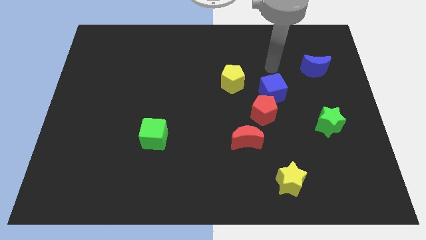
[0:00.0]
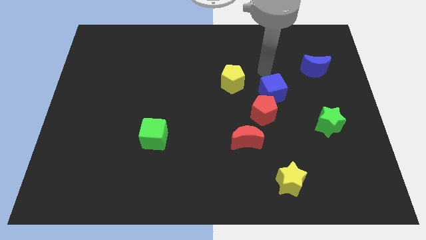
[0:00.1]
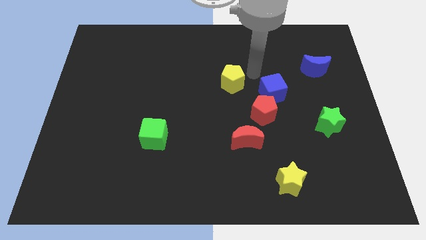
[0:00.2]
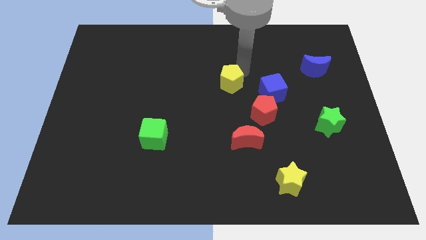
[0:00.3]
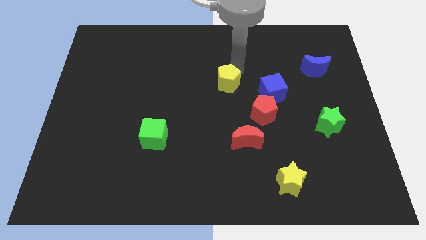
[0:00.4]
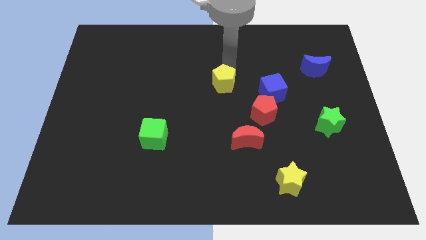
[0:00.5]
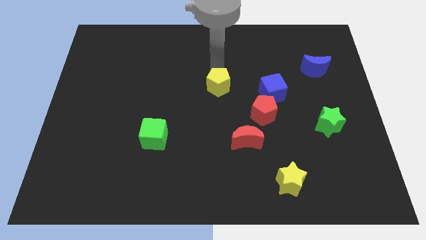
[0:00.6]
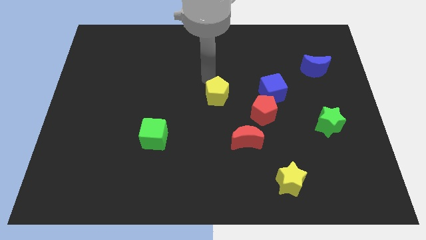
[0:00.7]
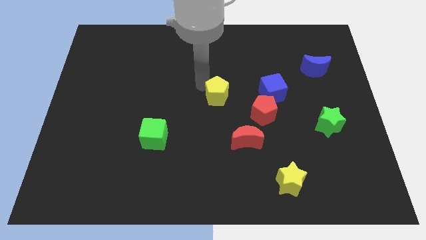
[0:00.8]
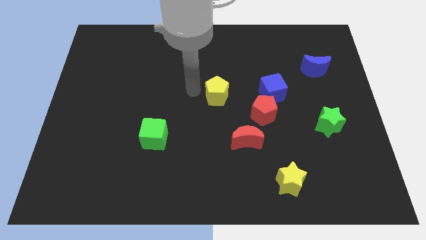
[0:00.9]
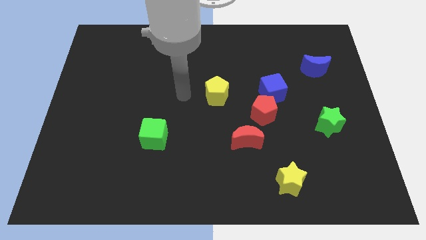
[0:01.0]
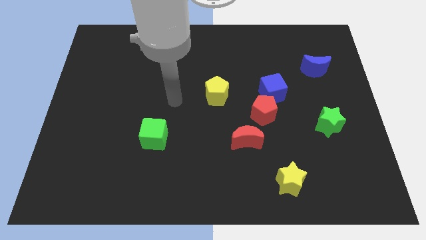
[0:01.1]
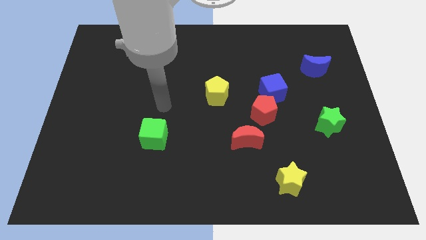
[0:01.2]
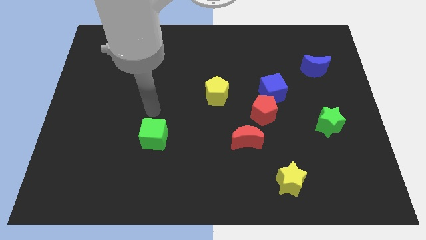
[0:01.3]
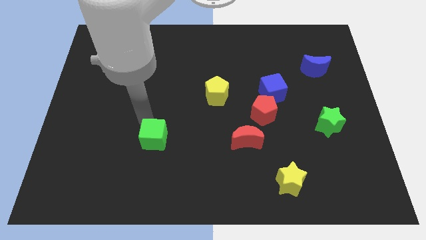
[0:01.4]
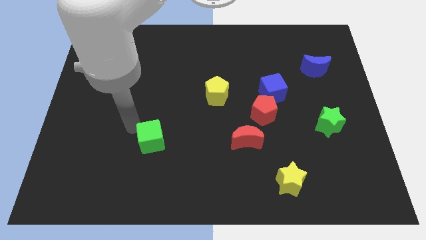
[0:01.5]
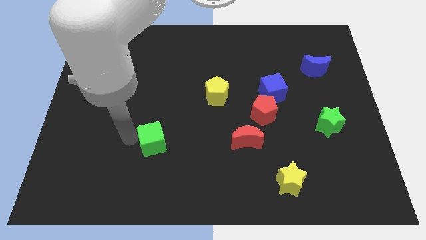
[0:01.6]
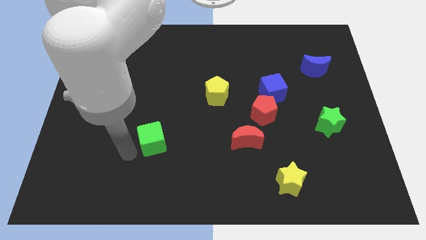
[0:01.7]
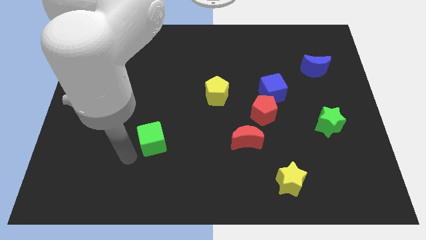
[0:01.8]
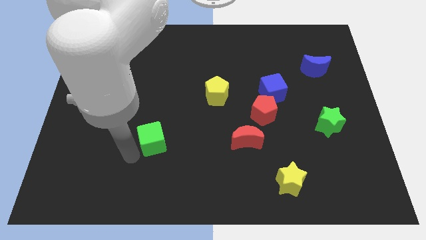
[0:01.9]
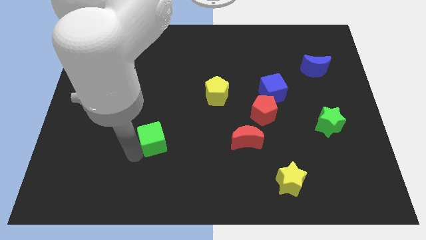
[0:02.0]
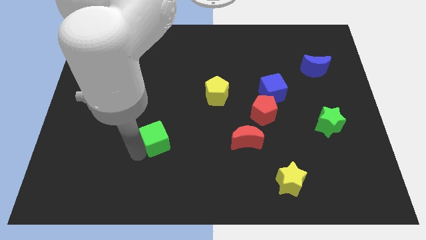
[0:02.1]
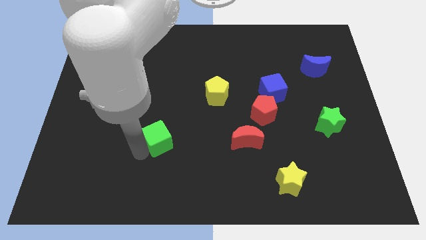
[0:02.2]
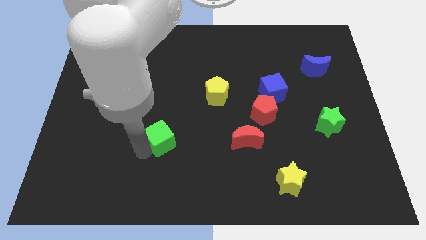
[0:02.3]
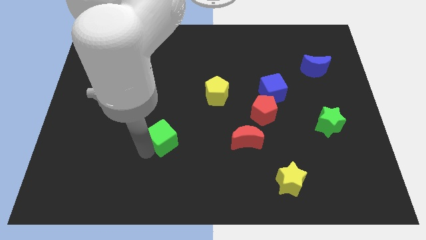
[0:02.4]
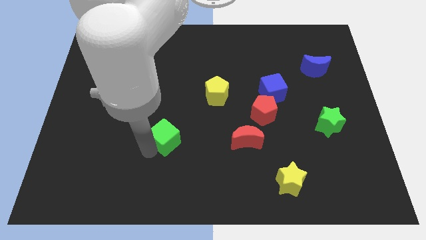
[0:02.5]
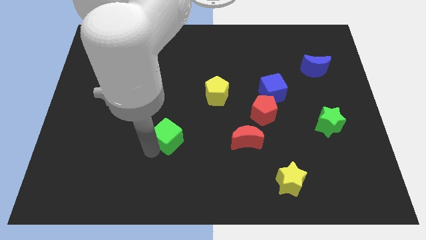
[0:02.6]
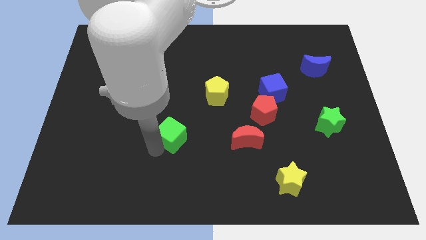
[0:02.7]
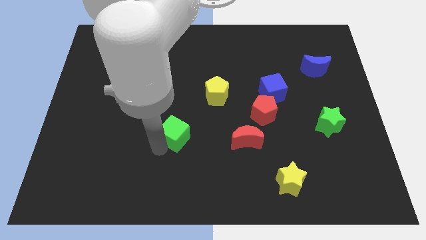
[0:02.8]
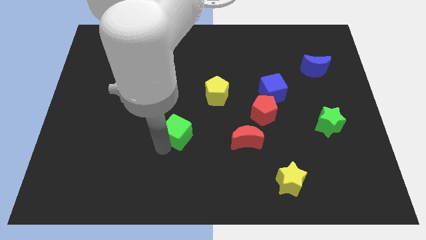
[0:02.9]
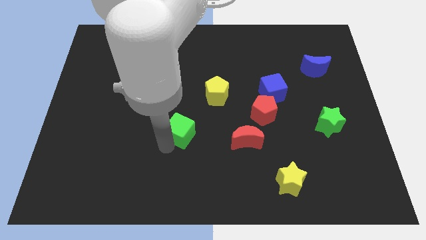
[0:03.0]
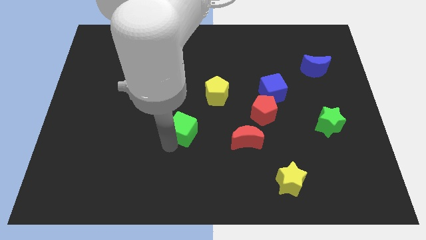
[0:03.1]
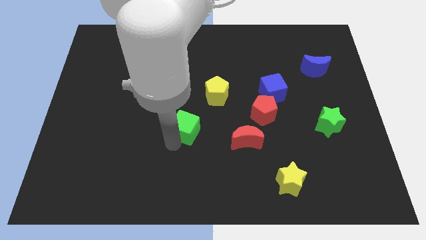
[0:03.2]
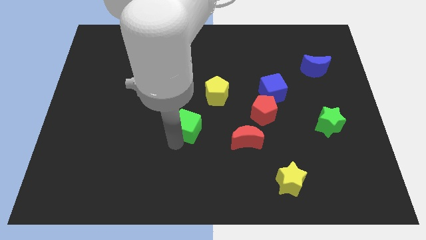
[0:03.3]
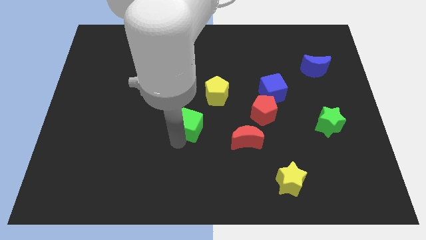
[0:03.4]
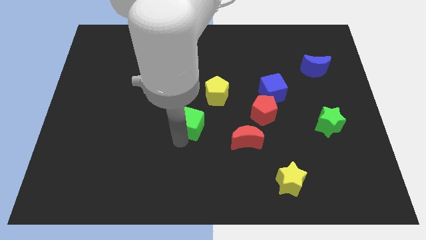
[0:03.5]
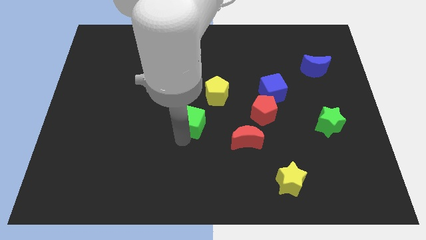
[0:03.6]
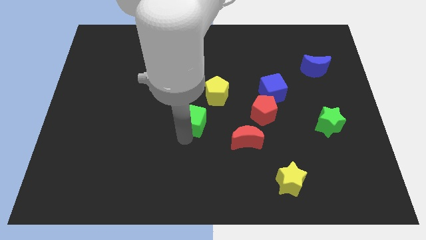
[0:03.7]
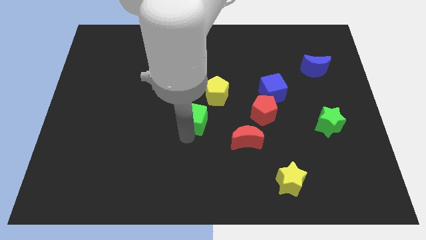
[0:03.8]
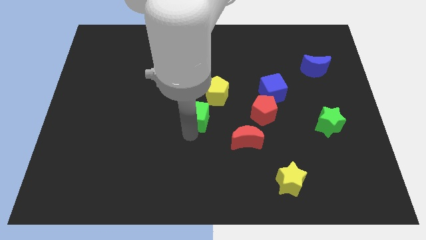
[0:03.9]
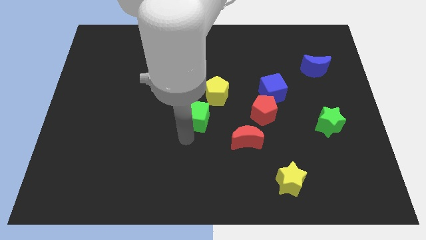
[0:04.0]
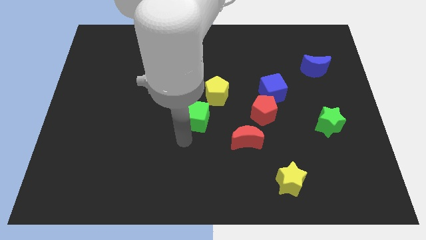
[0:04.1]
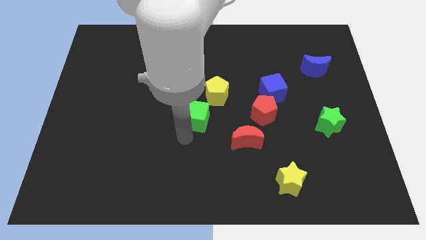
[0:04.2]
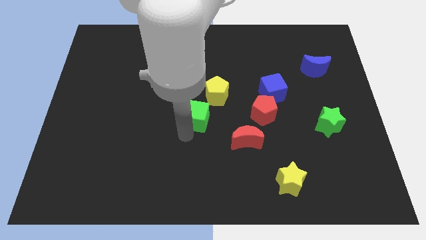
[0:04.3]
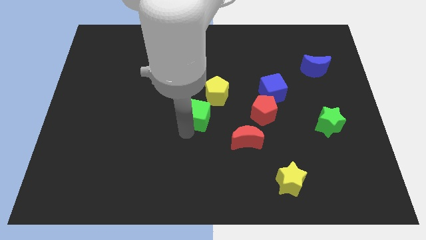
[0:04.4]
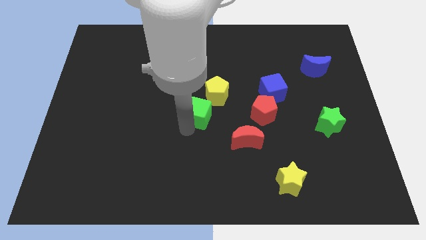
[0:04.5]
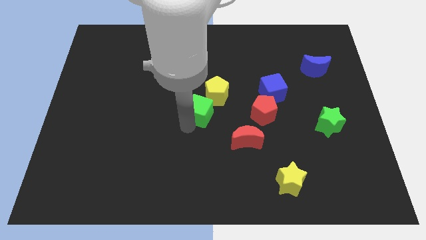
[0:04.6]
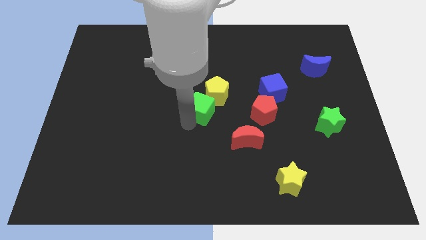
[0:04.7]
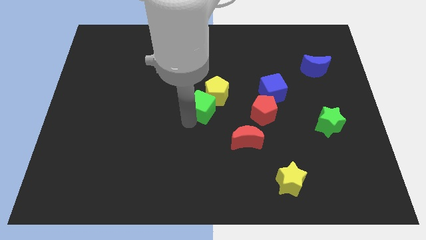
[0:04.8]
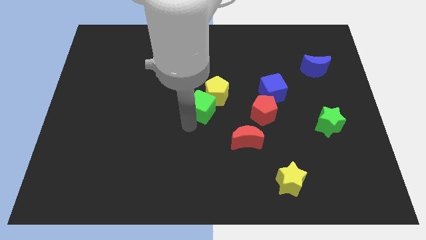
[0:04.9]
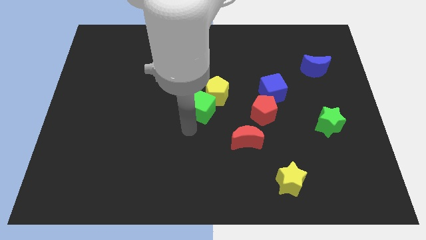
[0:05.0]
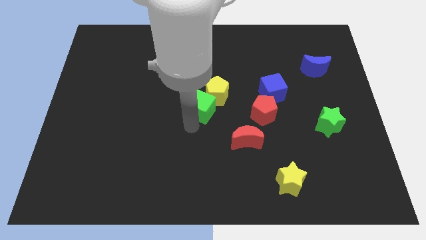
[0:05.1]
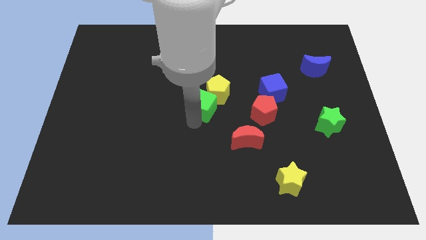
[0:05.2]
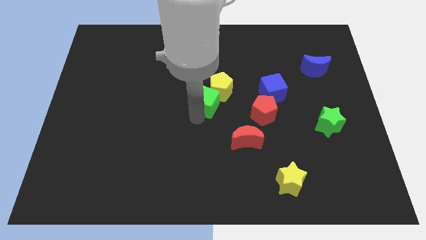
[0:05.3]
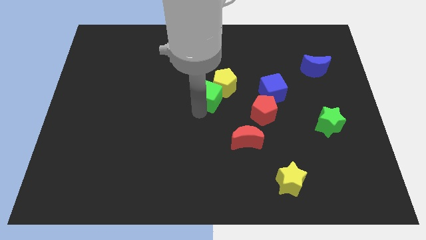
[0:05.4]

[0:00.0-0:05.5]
put the green cube left of the blue cube

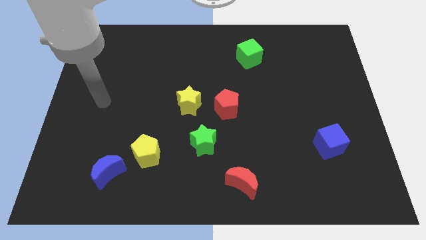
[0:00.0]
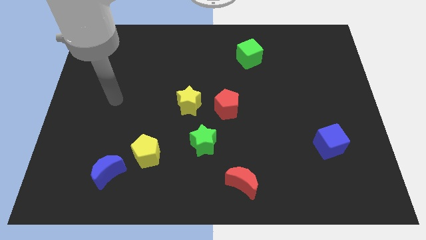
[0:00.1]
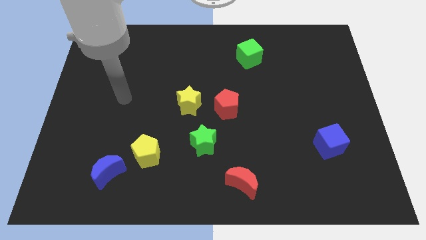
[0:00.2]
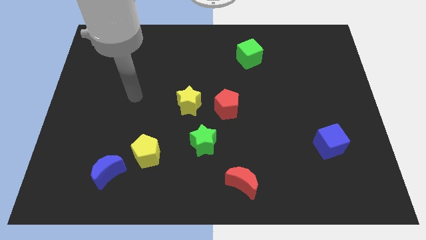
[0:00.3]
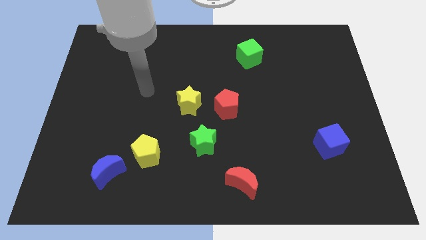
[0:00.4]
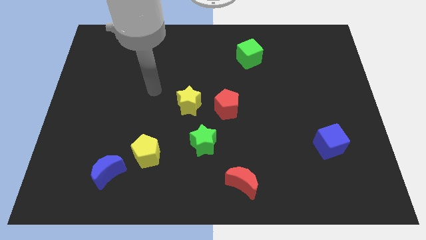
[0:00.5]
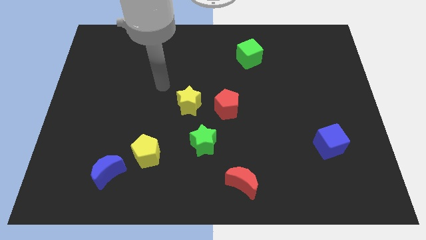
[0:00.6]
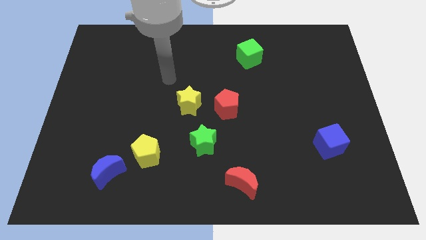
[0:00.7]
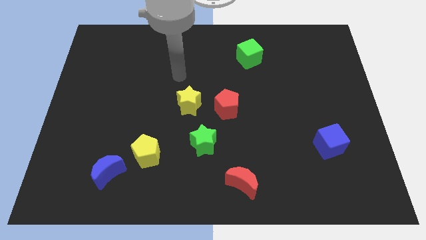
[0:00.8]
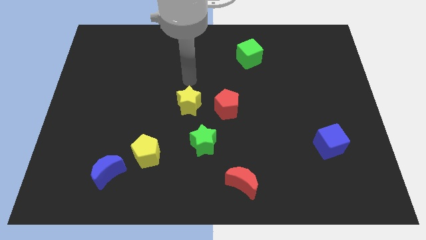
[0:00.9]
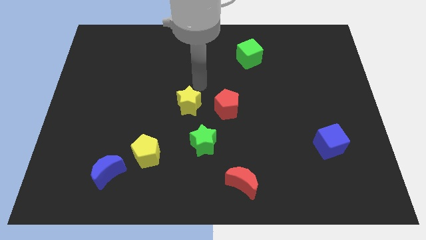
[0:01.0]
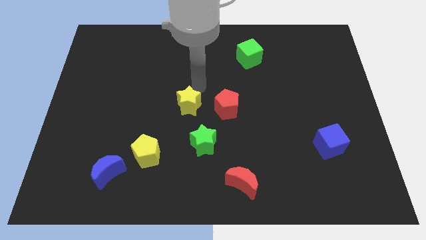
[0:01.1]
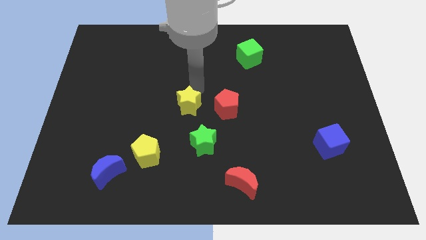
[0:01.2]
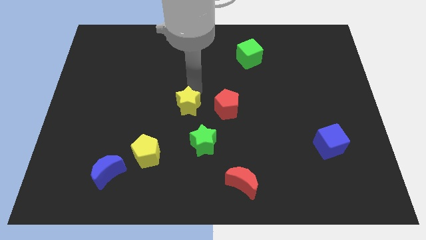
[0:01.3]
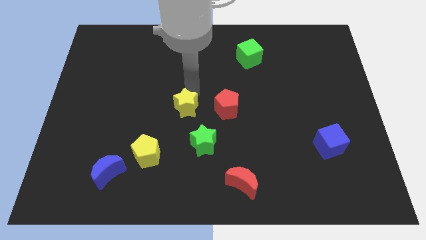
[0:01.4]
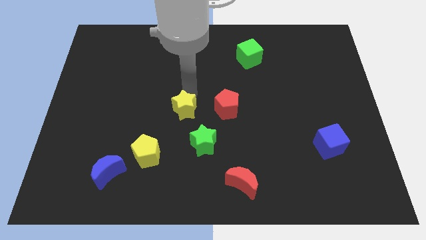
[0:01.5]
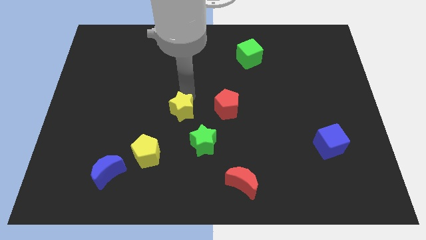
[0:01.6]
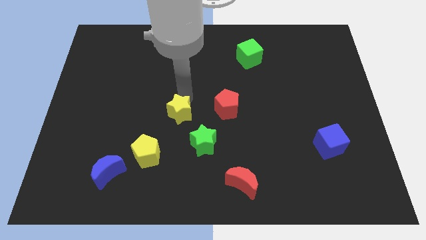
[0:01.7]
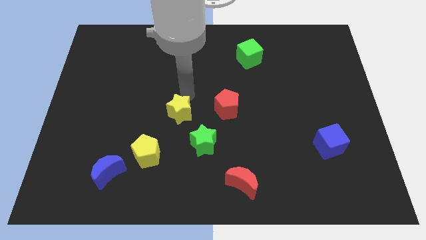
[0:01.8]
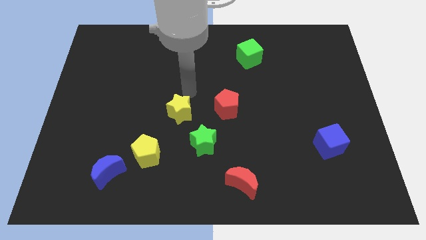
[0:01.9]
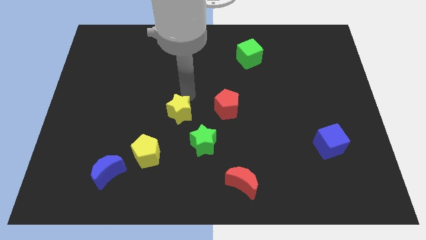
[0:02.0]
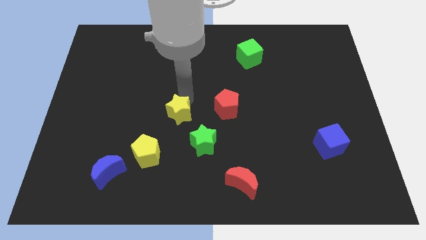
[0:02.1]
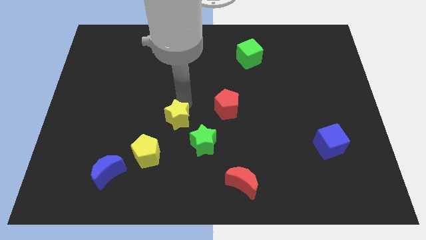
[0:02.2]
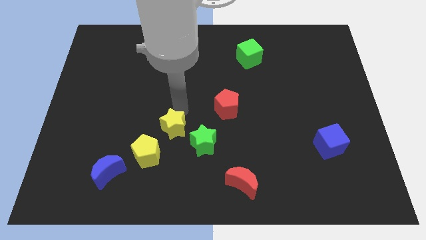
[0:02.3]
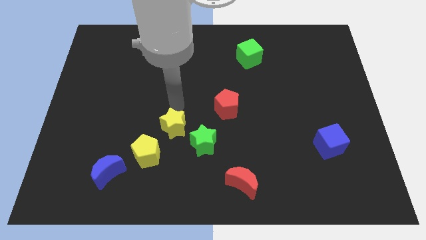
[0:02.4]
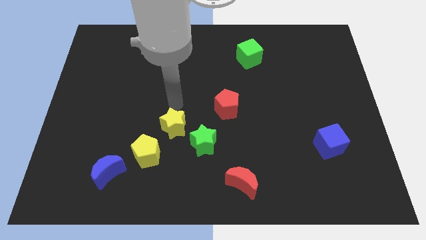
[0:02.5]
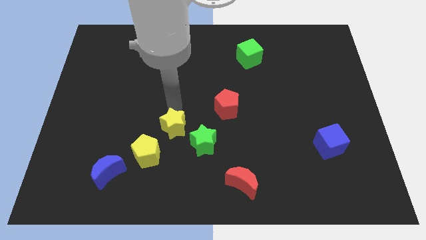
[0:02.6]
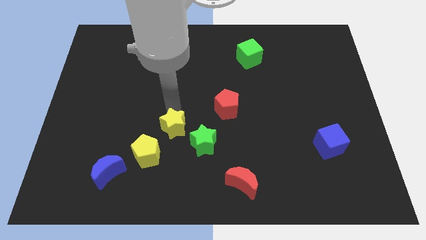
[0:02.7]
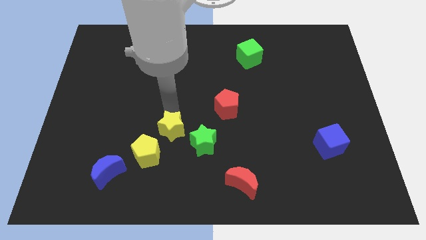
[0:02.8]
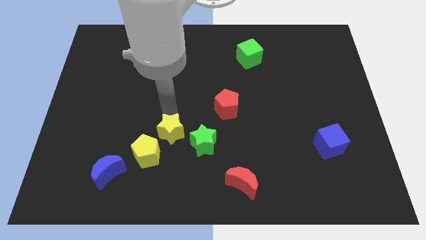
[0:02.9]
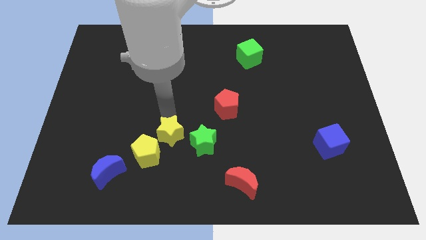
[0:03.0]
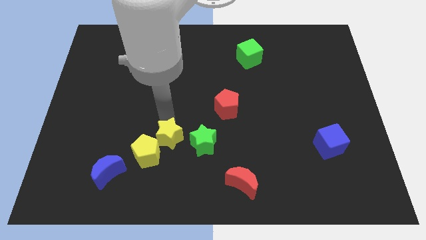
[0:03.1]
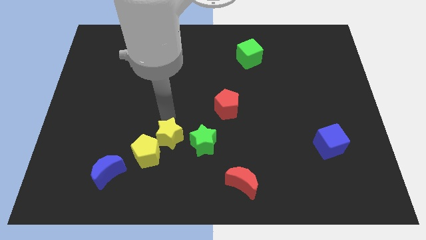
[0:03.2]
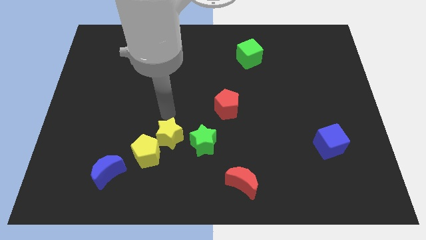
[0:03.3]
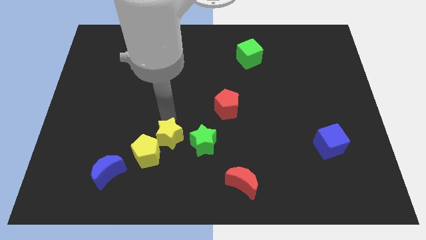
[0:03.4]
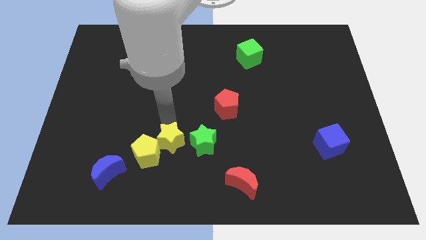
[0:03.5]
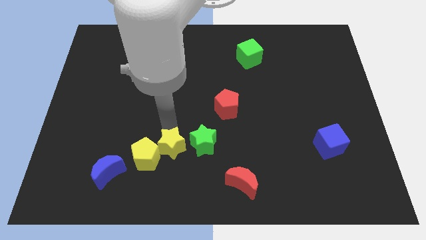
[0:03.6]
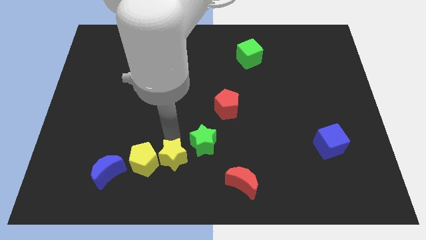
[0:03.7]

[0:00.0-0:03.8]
push the yellow star to the bottom right side of the yellow pentagon
